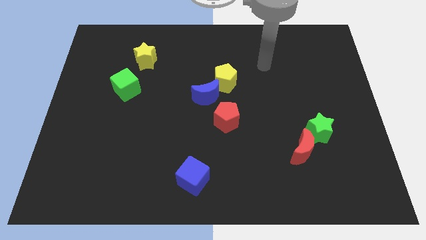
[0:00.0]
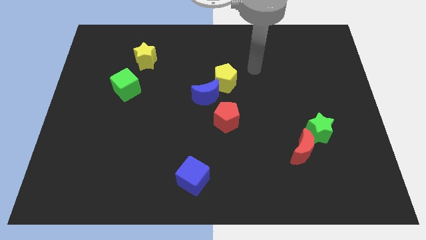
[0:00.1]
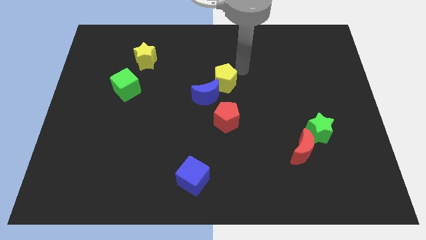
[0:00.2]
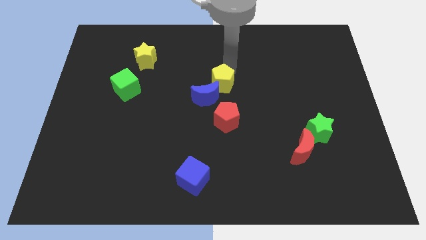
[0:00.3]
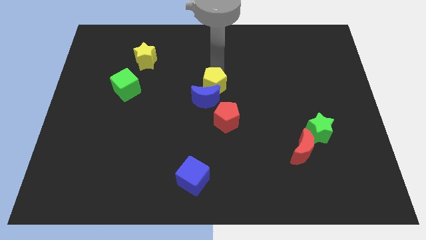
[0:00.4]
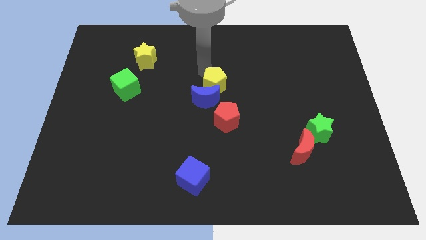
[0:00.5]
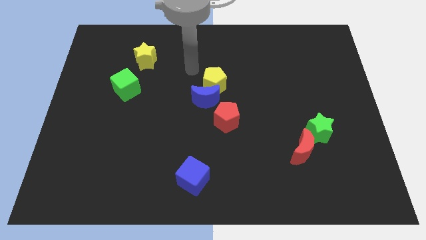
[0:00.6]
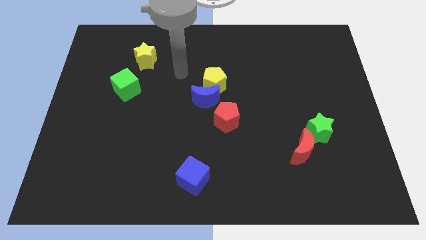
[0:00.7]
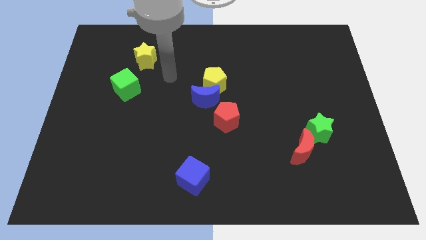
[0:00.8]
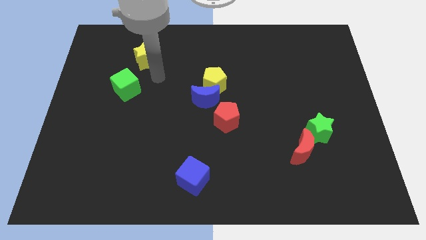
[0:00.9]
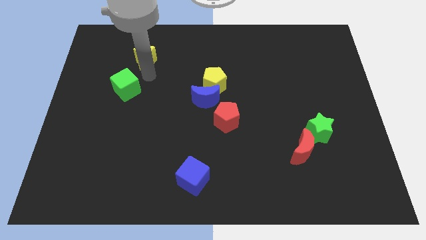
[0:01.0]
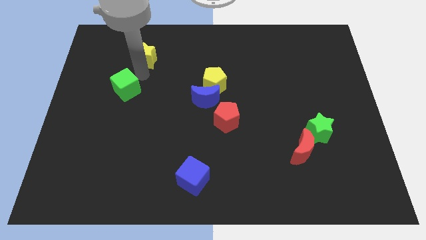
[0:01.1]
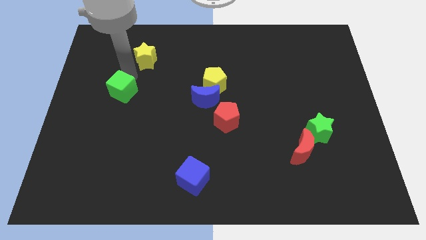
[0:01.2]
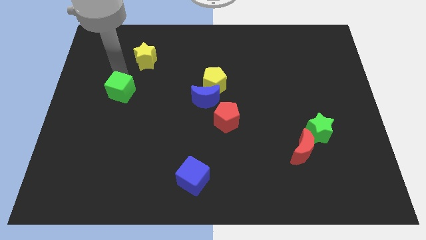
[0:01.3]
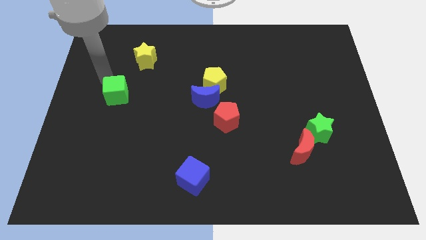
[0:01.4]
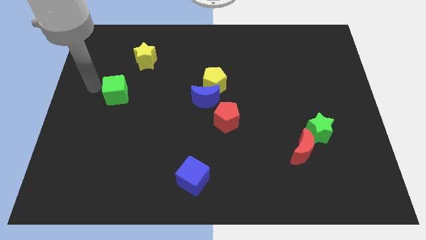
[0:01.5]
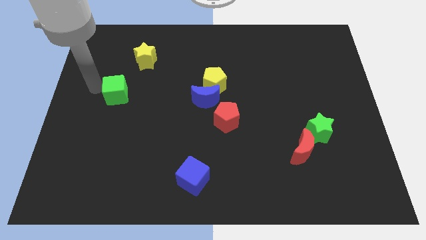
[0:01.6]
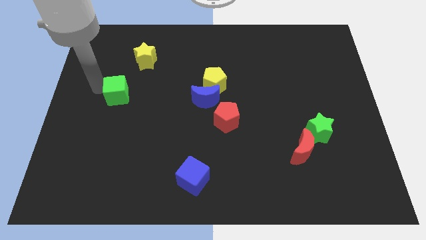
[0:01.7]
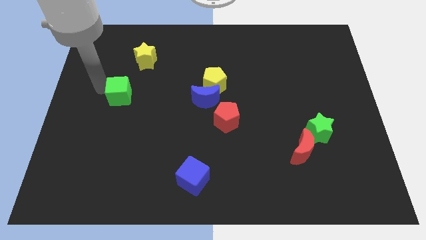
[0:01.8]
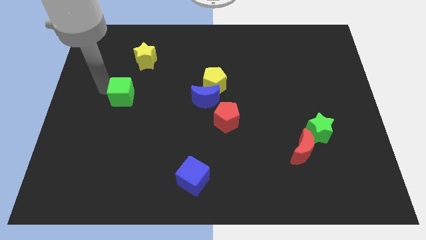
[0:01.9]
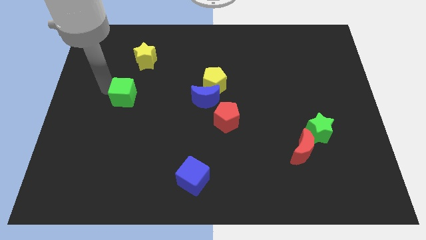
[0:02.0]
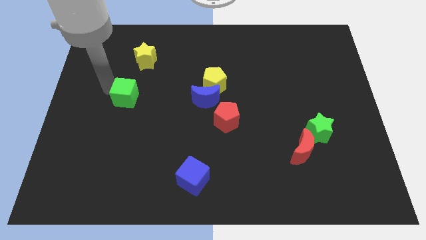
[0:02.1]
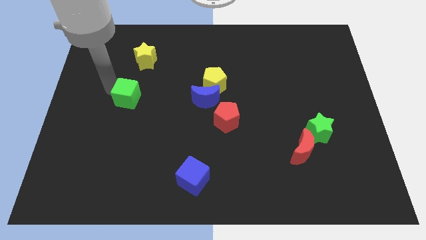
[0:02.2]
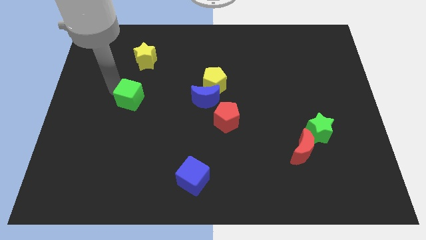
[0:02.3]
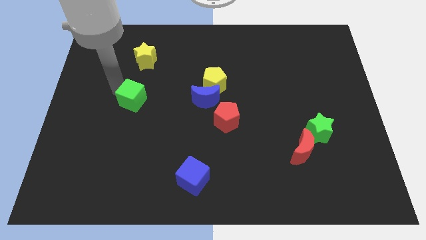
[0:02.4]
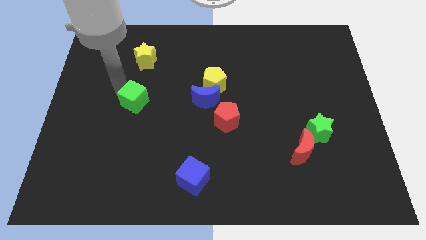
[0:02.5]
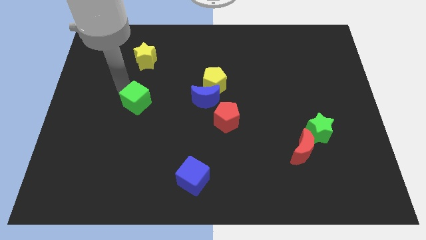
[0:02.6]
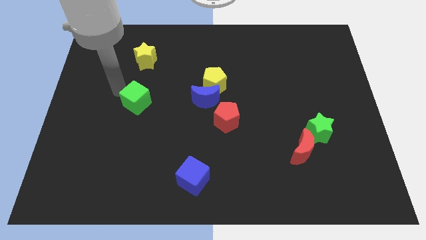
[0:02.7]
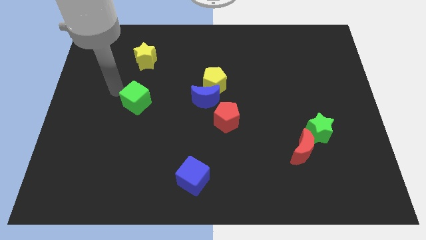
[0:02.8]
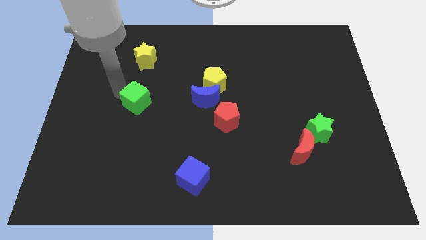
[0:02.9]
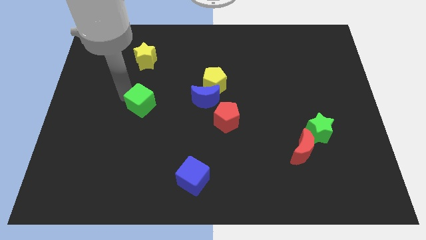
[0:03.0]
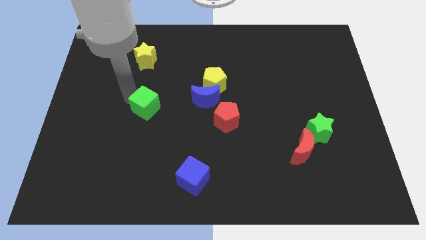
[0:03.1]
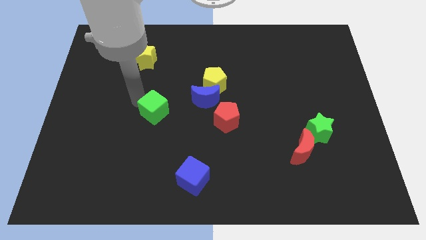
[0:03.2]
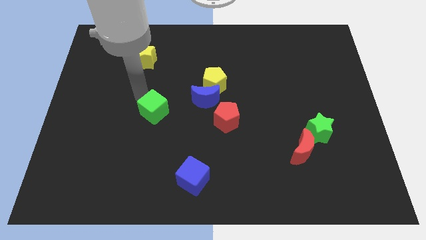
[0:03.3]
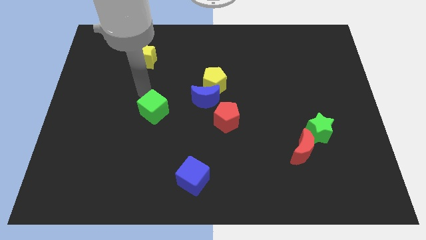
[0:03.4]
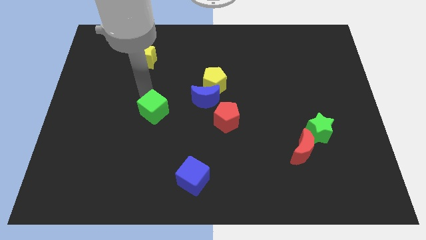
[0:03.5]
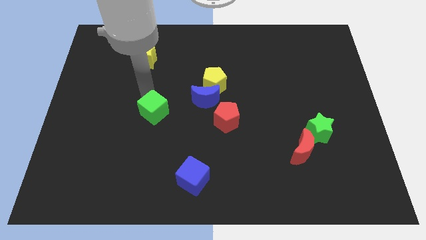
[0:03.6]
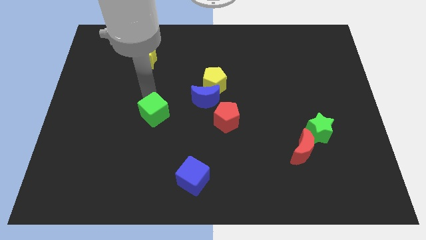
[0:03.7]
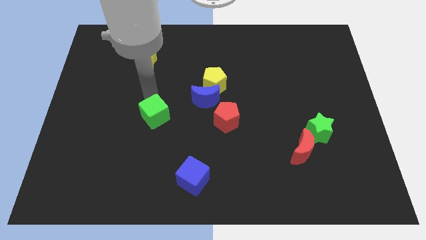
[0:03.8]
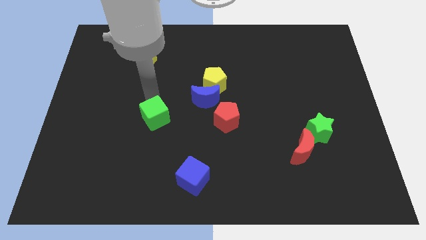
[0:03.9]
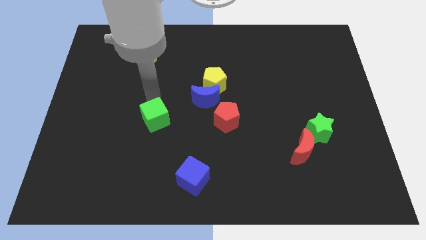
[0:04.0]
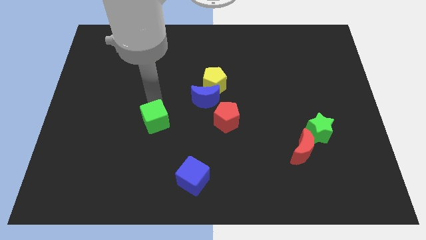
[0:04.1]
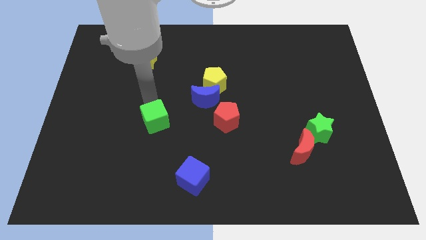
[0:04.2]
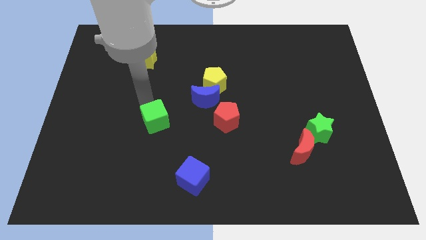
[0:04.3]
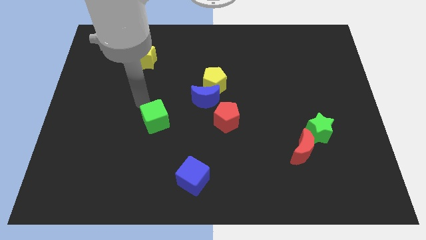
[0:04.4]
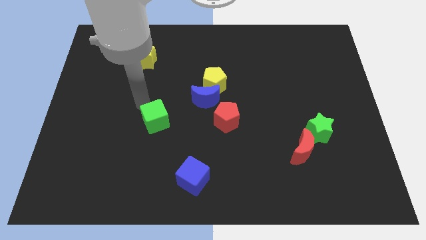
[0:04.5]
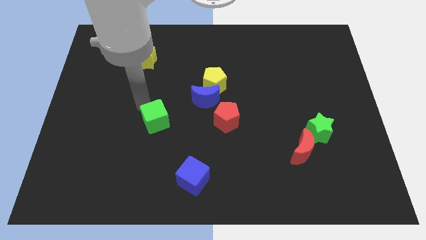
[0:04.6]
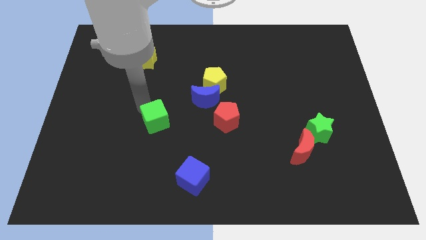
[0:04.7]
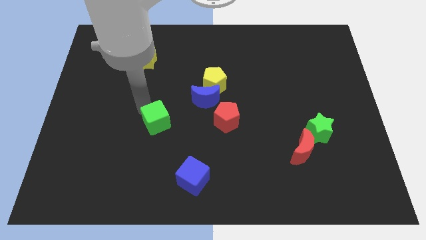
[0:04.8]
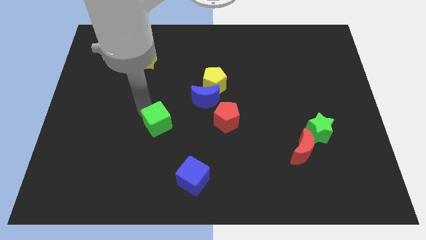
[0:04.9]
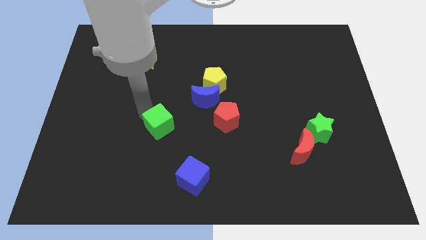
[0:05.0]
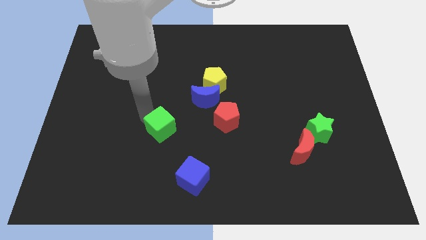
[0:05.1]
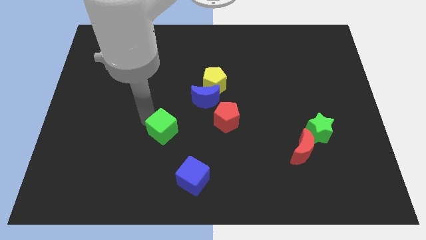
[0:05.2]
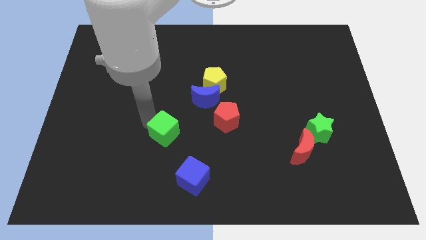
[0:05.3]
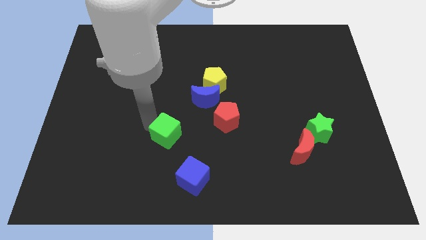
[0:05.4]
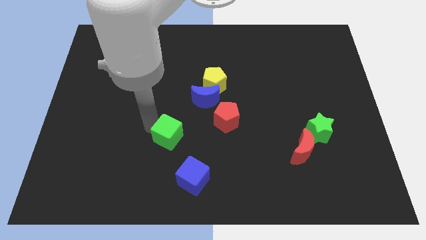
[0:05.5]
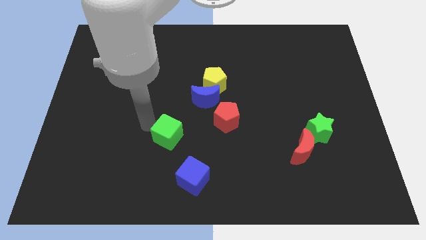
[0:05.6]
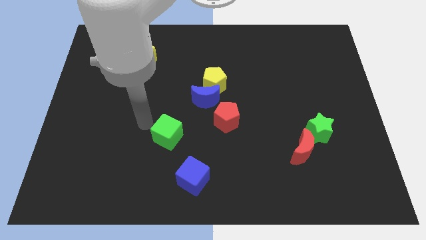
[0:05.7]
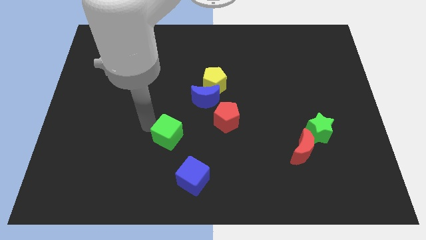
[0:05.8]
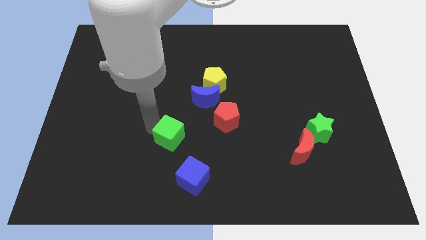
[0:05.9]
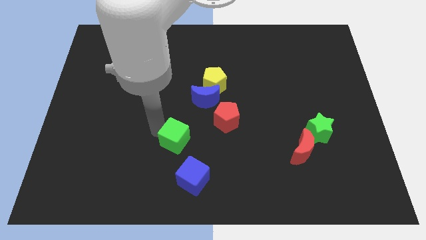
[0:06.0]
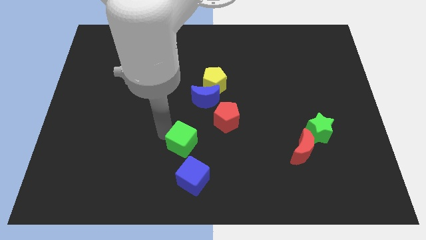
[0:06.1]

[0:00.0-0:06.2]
move the green cube down and right diagonally

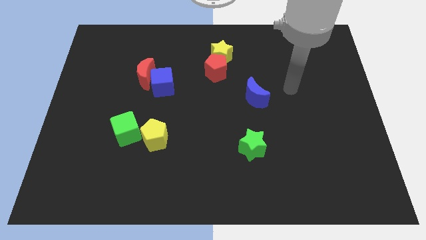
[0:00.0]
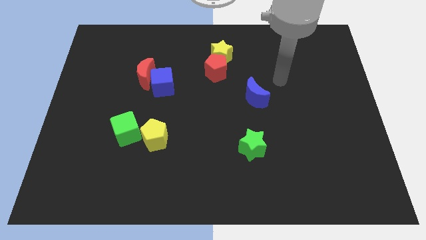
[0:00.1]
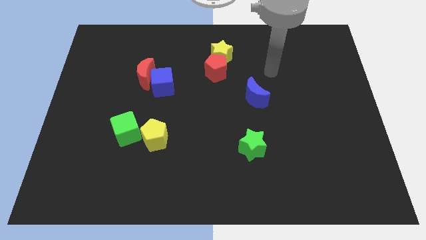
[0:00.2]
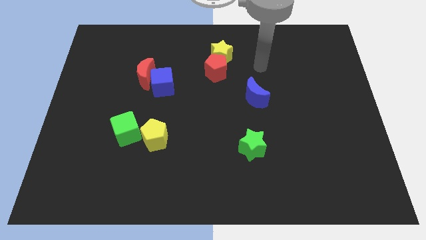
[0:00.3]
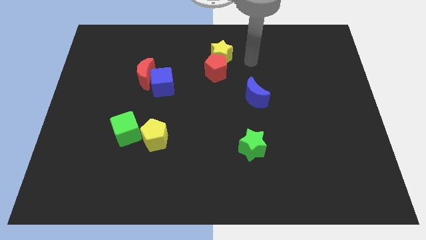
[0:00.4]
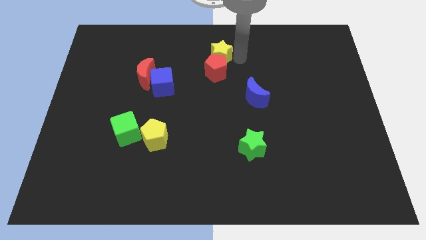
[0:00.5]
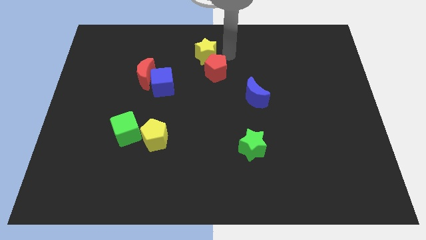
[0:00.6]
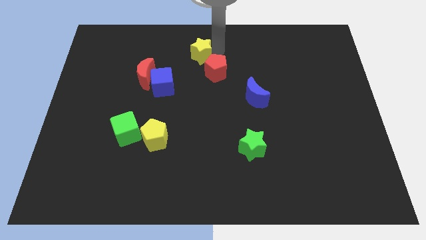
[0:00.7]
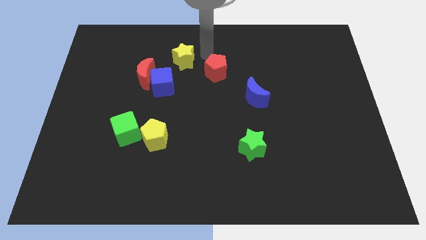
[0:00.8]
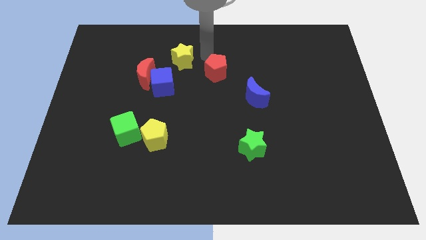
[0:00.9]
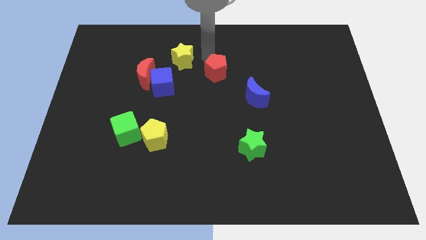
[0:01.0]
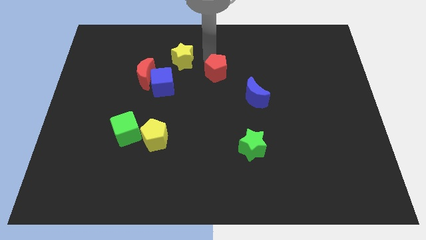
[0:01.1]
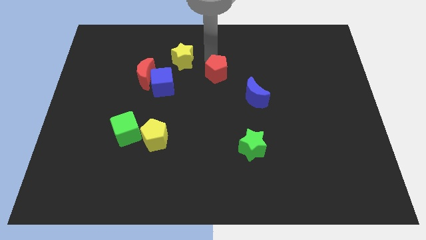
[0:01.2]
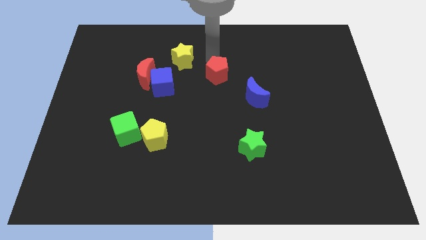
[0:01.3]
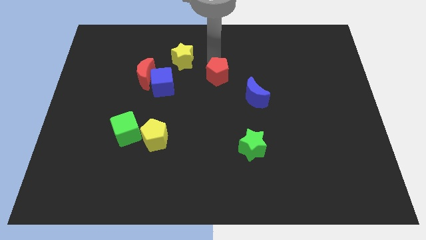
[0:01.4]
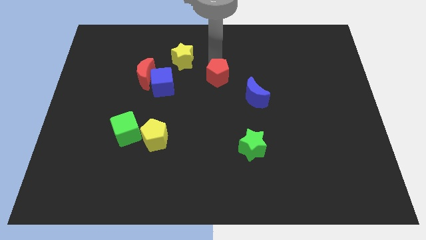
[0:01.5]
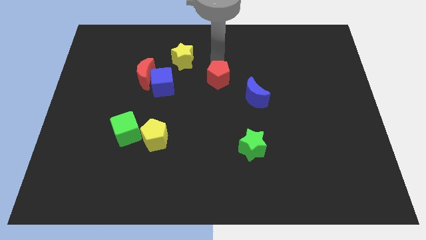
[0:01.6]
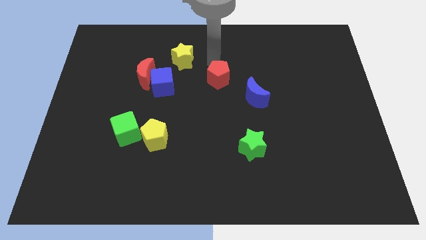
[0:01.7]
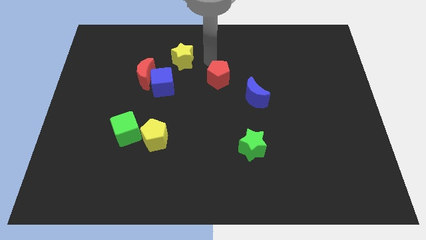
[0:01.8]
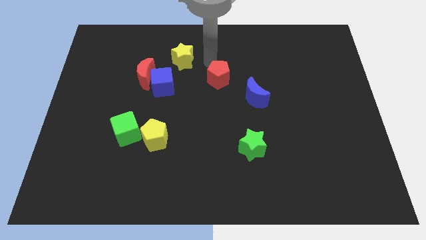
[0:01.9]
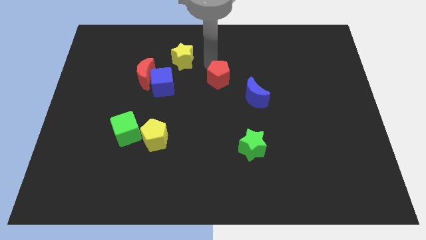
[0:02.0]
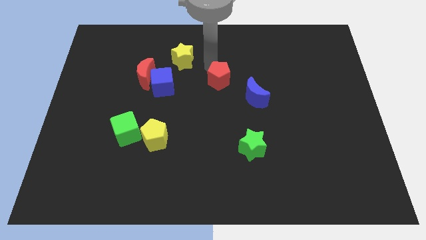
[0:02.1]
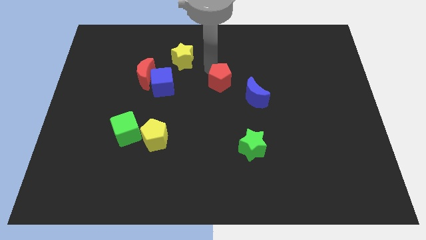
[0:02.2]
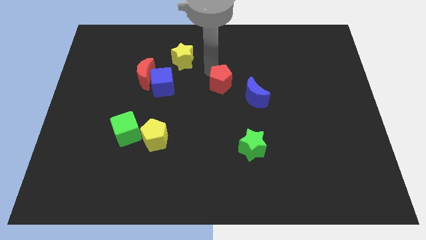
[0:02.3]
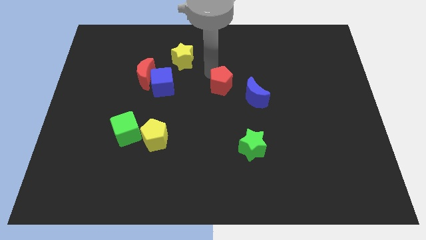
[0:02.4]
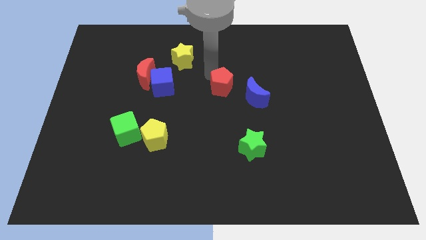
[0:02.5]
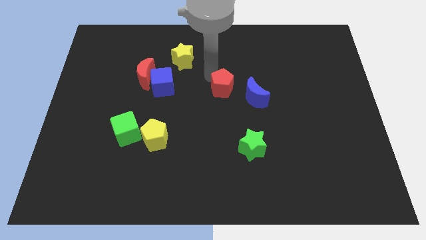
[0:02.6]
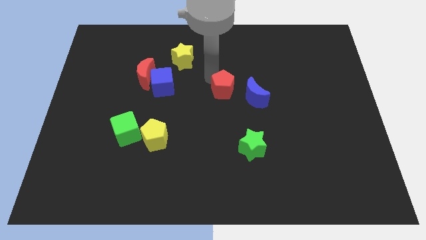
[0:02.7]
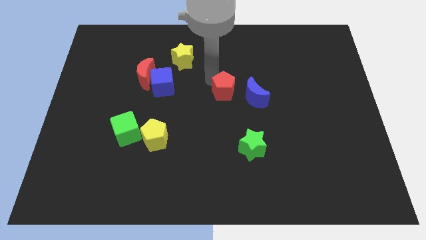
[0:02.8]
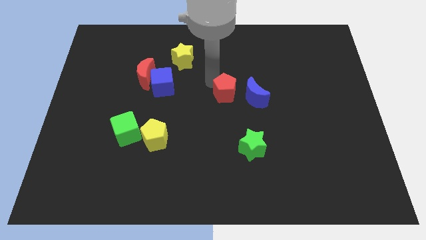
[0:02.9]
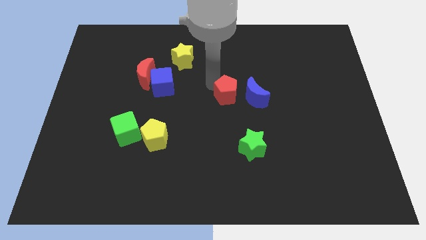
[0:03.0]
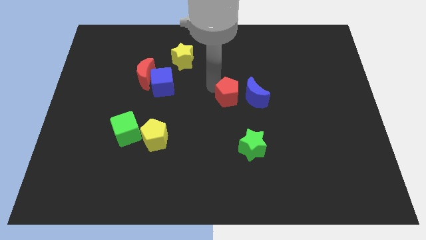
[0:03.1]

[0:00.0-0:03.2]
slide the red pentagon down and to the right diagonally somewhat
